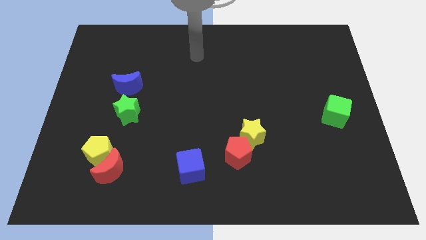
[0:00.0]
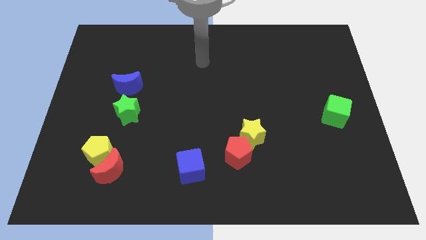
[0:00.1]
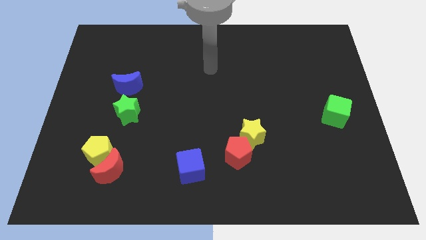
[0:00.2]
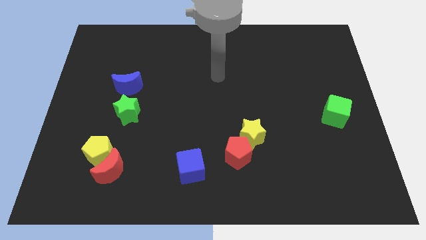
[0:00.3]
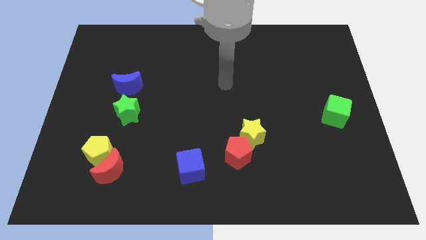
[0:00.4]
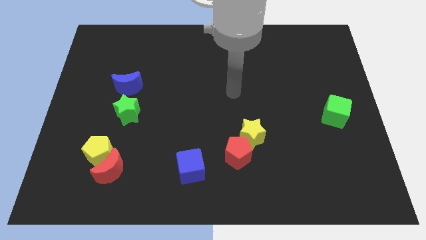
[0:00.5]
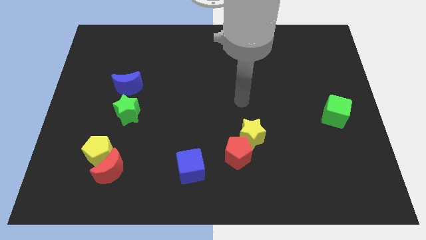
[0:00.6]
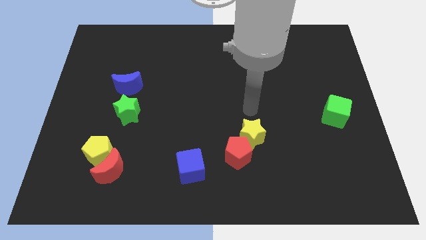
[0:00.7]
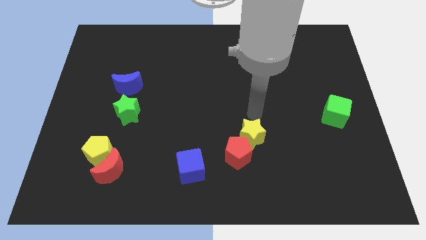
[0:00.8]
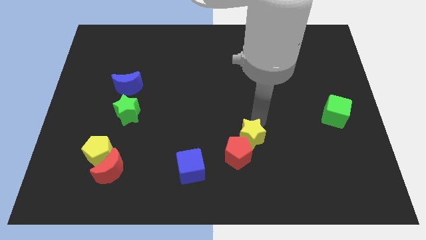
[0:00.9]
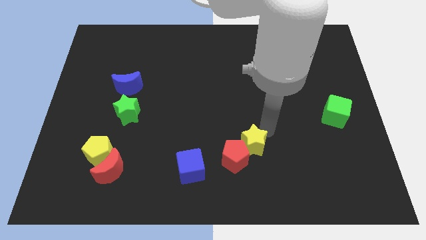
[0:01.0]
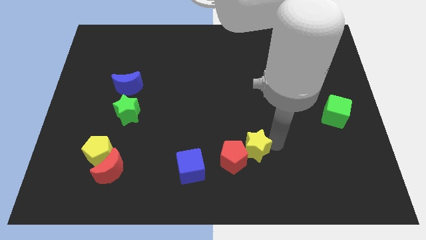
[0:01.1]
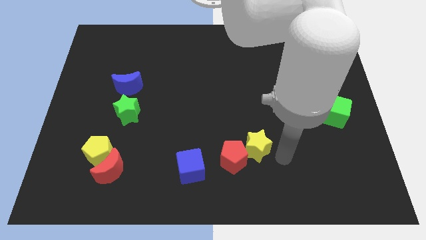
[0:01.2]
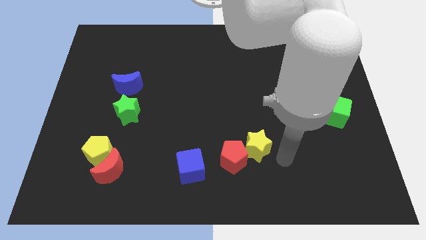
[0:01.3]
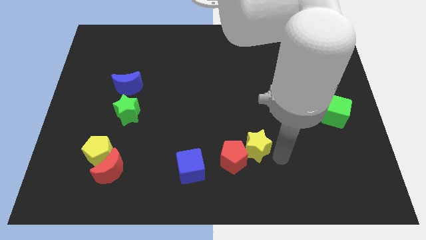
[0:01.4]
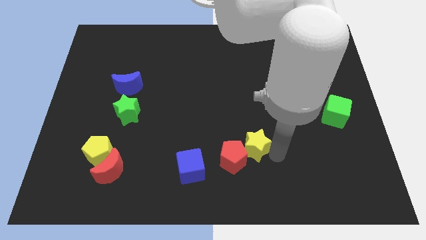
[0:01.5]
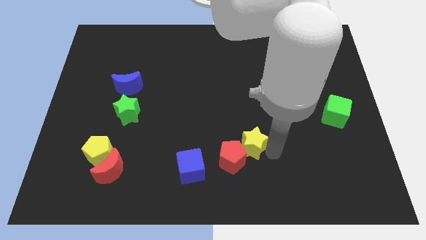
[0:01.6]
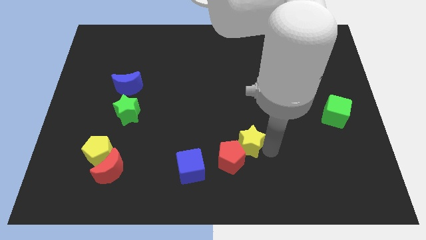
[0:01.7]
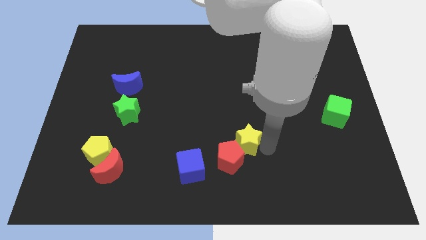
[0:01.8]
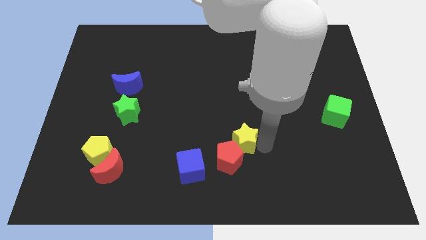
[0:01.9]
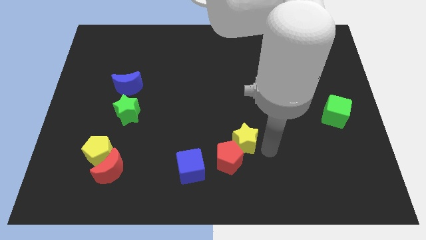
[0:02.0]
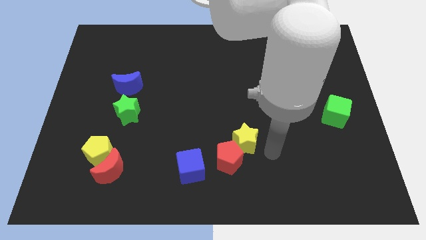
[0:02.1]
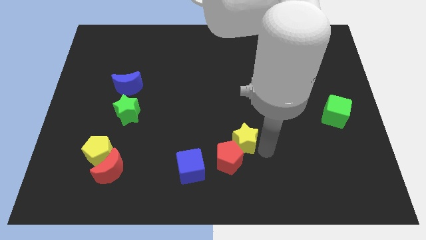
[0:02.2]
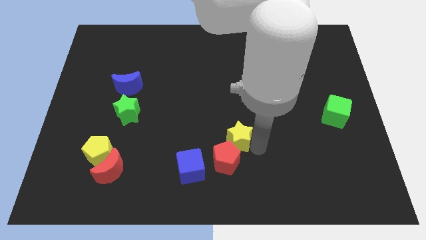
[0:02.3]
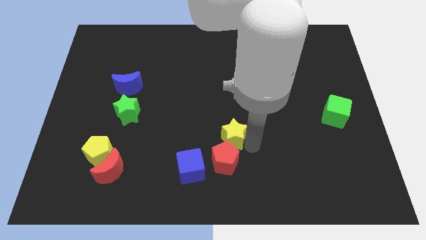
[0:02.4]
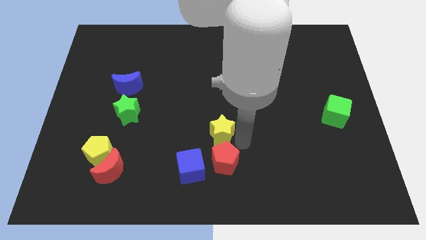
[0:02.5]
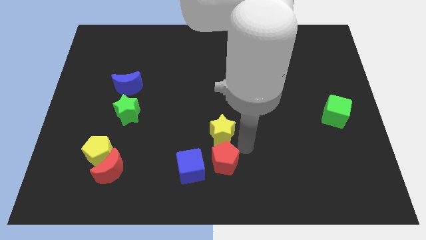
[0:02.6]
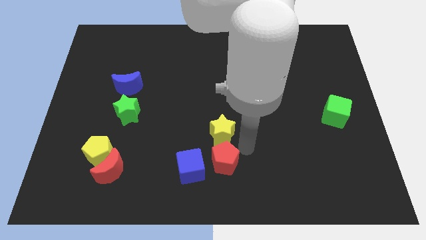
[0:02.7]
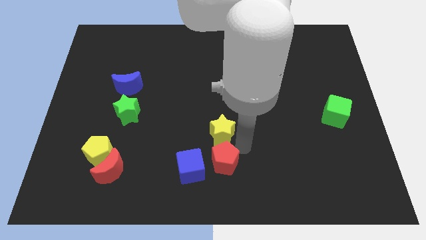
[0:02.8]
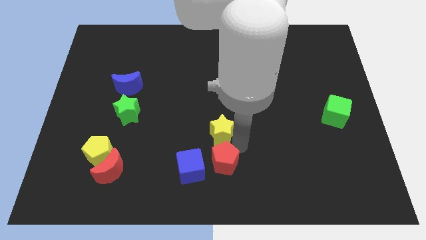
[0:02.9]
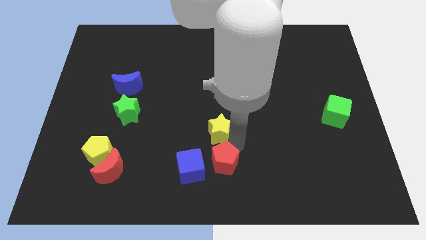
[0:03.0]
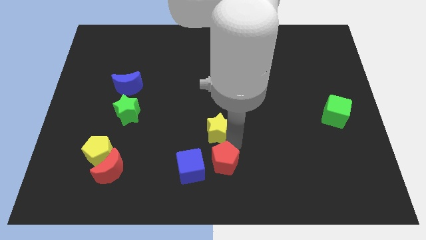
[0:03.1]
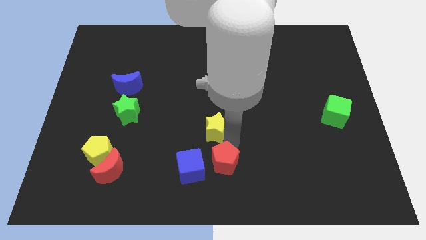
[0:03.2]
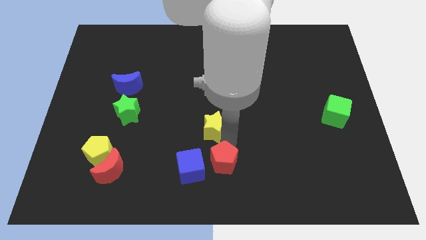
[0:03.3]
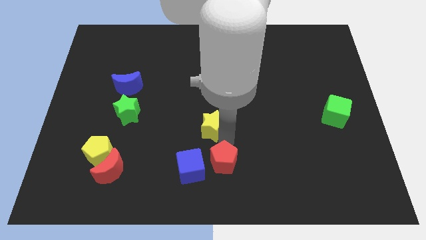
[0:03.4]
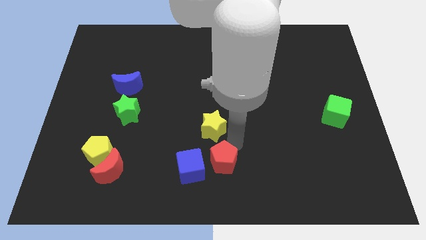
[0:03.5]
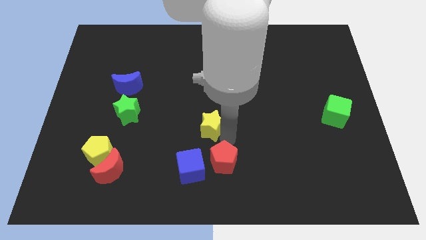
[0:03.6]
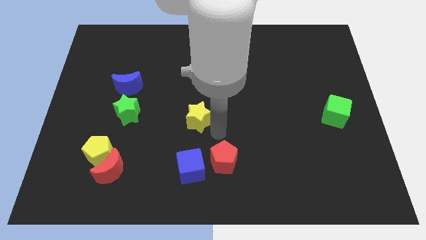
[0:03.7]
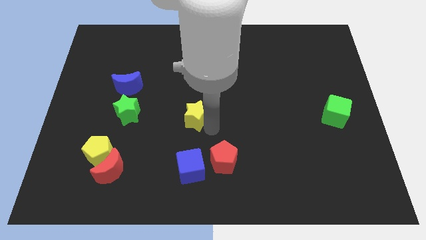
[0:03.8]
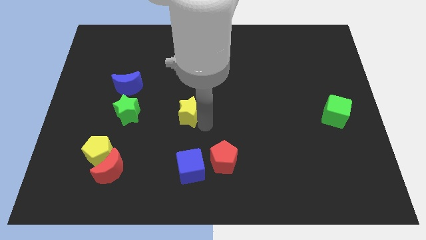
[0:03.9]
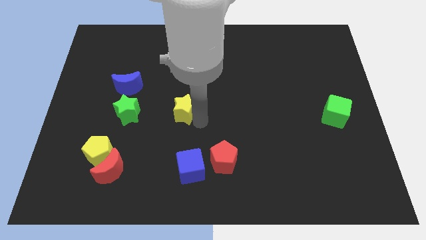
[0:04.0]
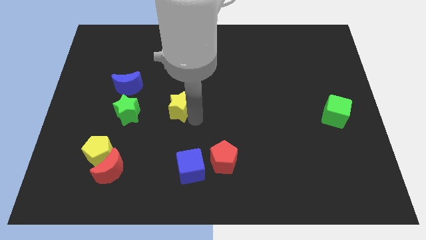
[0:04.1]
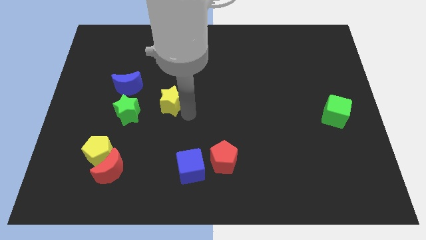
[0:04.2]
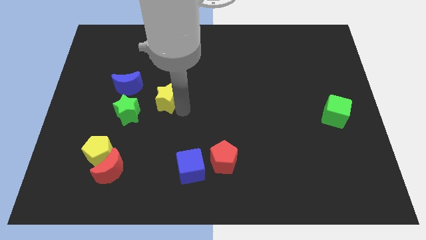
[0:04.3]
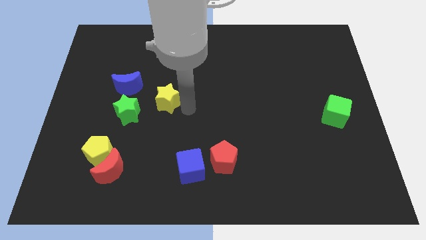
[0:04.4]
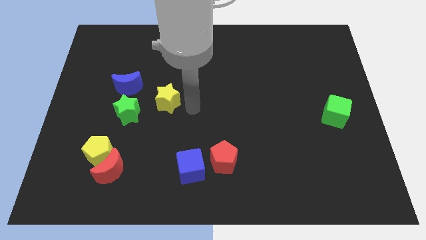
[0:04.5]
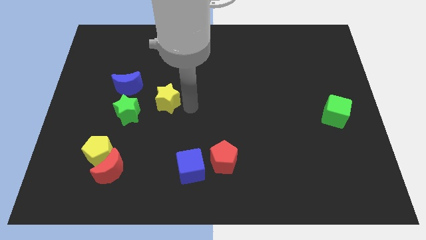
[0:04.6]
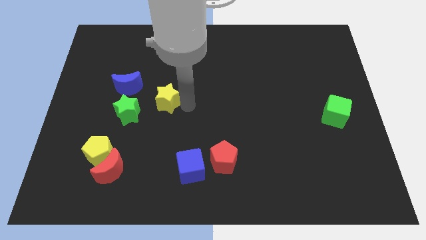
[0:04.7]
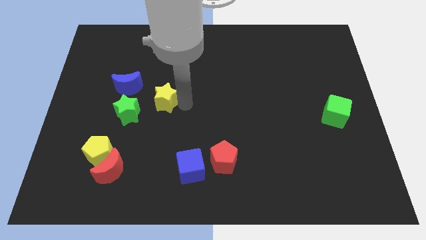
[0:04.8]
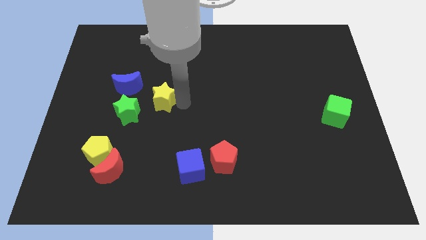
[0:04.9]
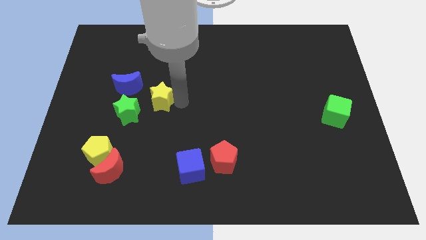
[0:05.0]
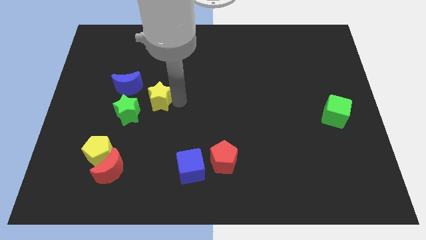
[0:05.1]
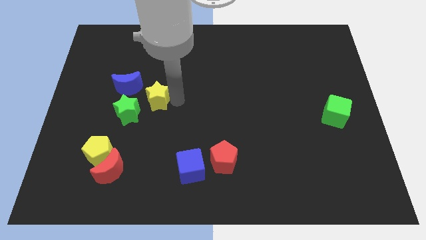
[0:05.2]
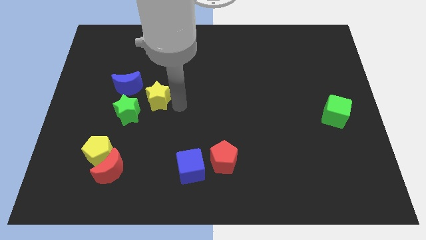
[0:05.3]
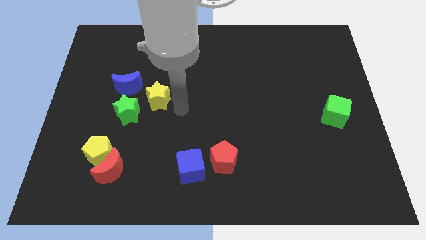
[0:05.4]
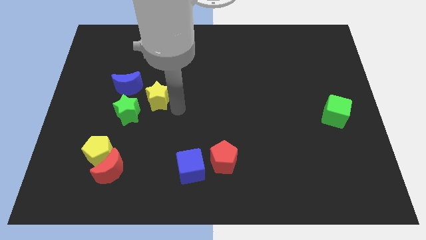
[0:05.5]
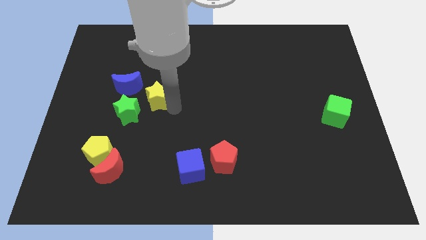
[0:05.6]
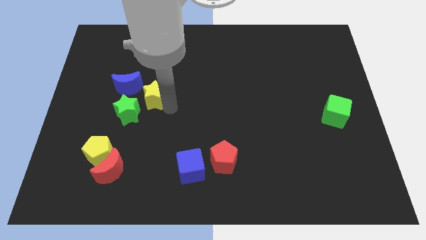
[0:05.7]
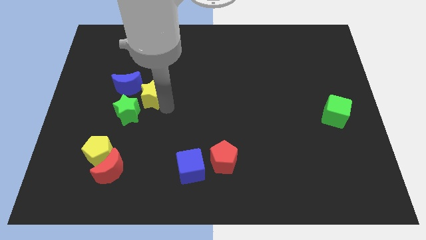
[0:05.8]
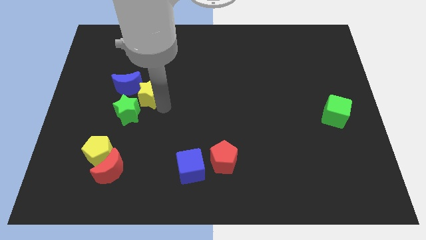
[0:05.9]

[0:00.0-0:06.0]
put the yellow star towards the blue moon

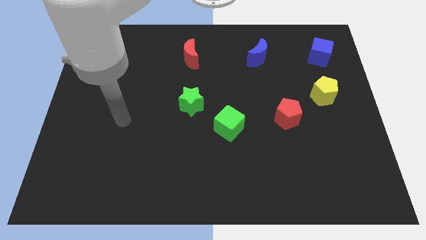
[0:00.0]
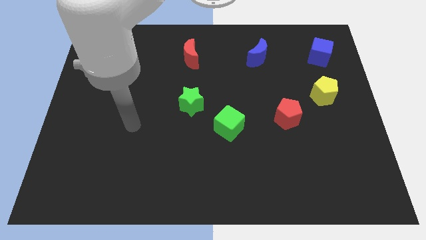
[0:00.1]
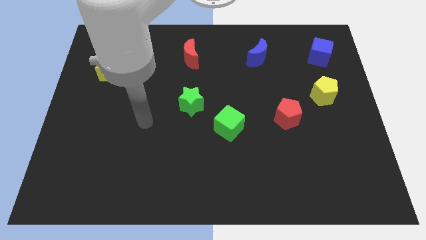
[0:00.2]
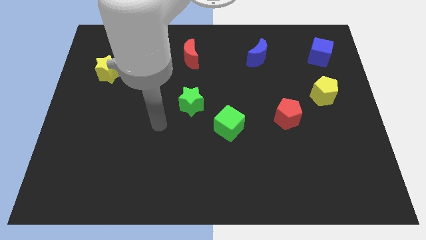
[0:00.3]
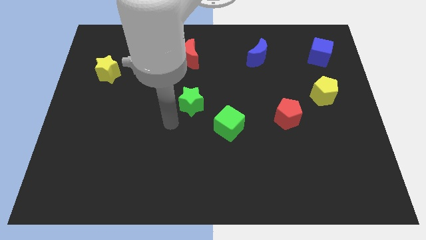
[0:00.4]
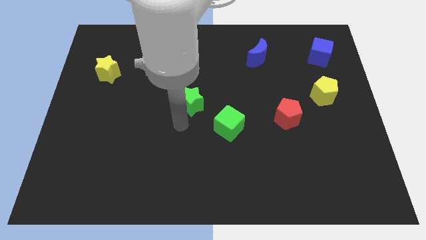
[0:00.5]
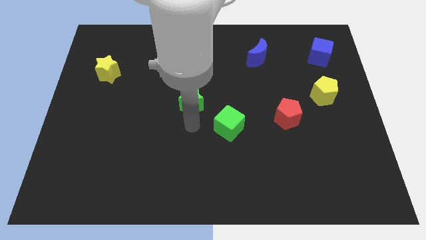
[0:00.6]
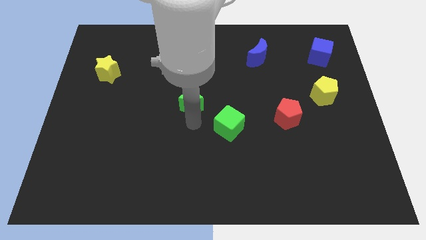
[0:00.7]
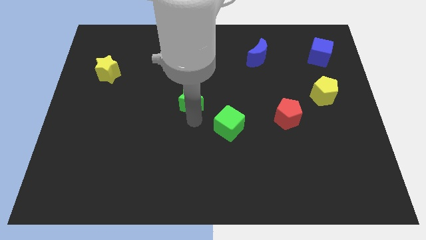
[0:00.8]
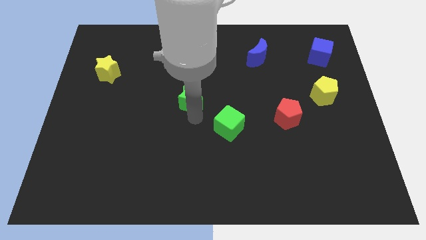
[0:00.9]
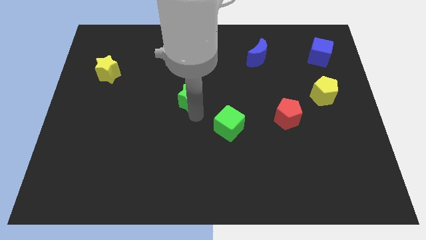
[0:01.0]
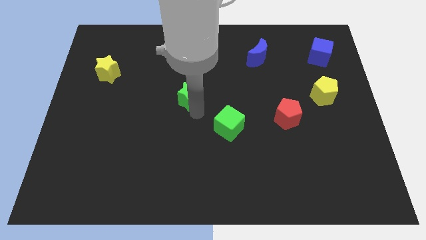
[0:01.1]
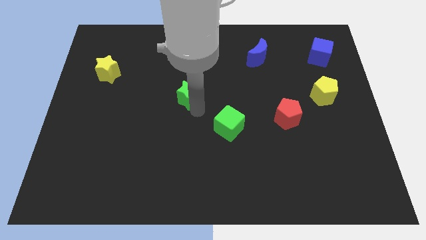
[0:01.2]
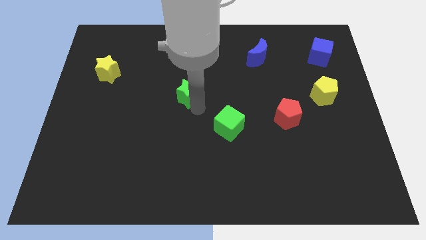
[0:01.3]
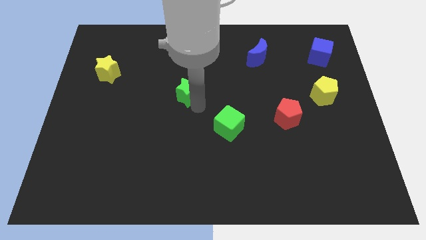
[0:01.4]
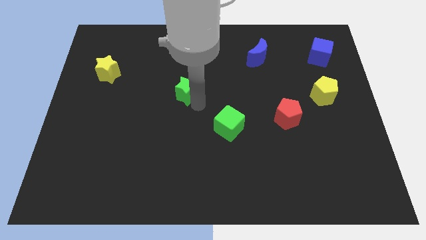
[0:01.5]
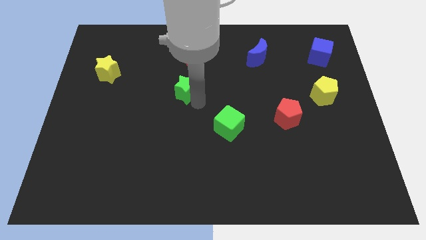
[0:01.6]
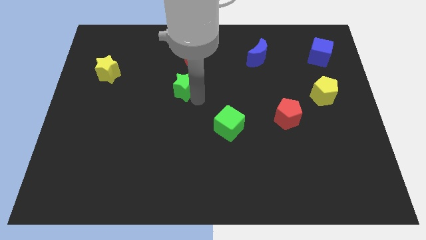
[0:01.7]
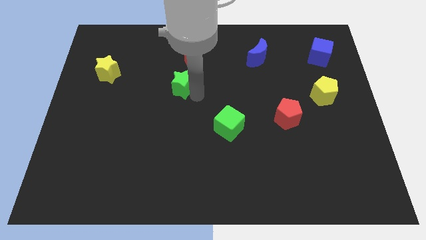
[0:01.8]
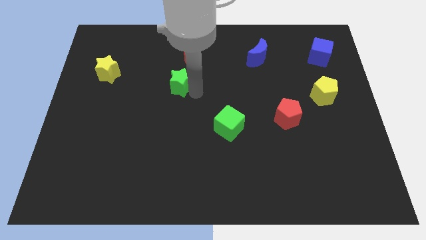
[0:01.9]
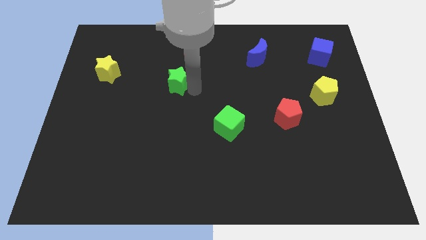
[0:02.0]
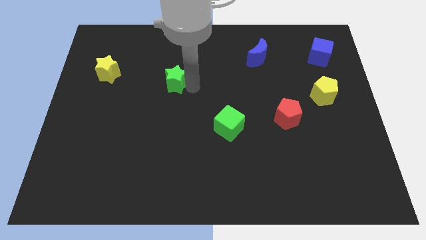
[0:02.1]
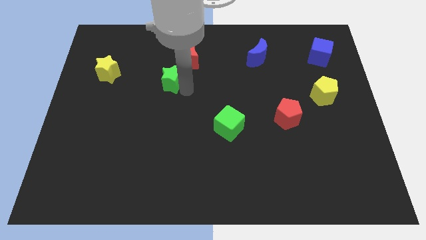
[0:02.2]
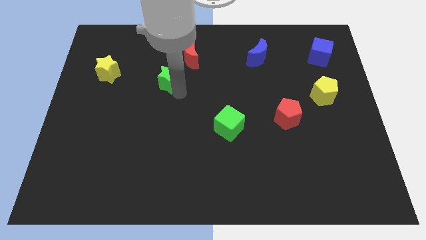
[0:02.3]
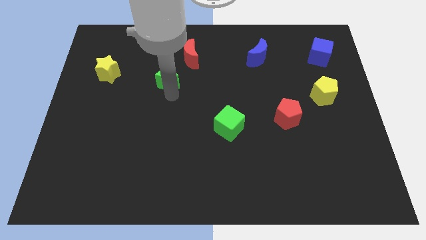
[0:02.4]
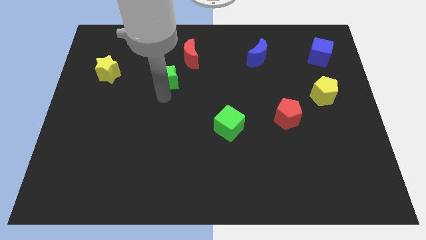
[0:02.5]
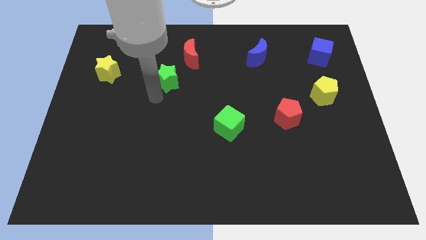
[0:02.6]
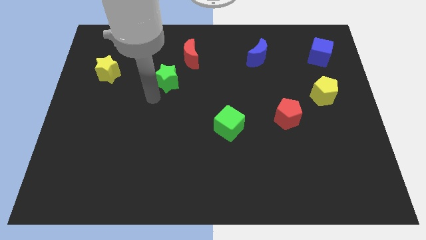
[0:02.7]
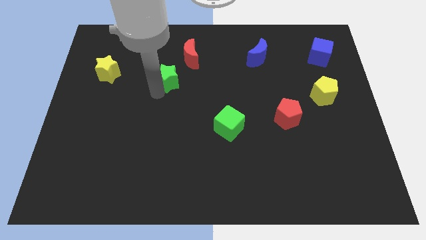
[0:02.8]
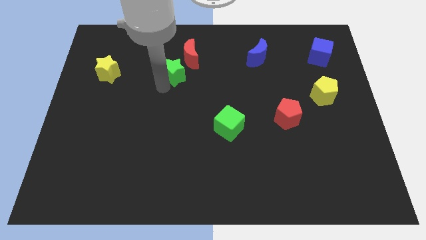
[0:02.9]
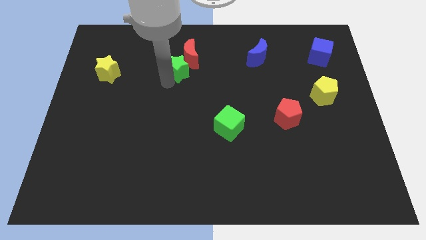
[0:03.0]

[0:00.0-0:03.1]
push the green star next to the red moon
